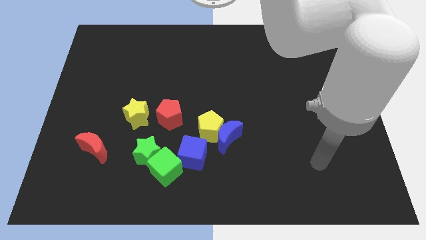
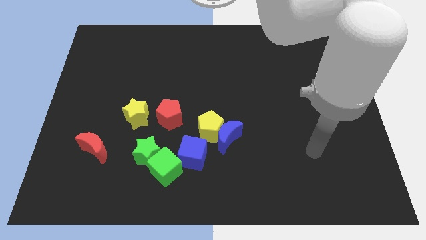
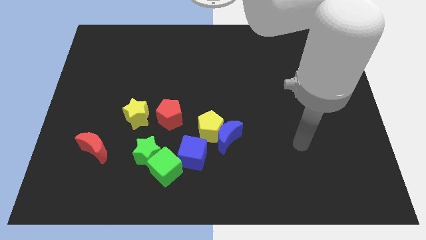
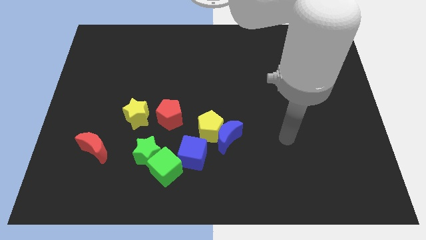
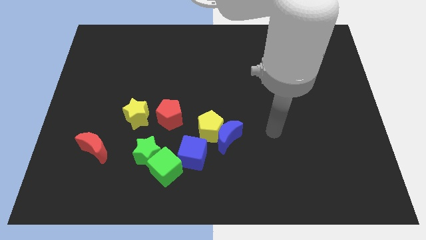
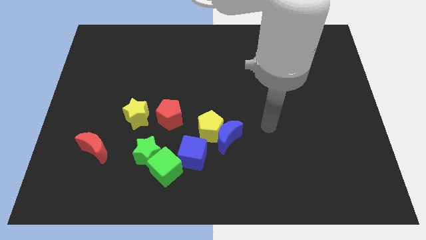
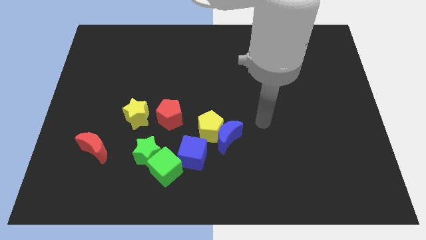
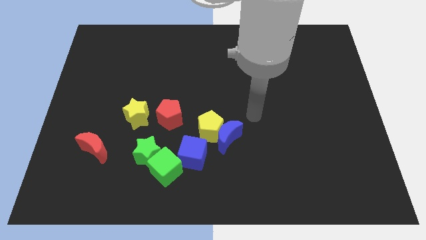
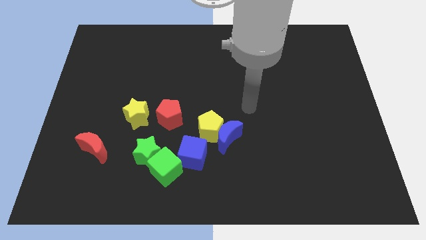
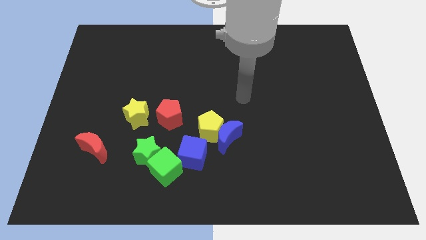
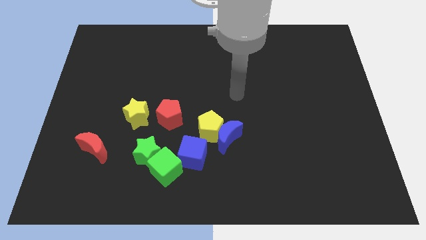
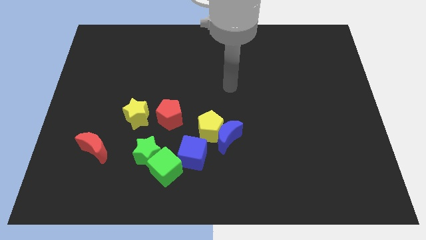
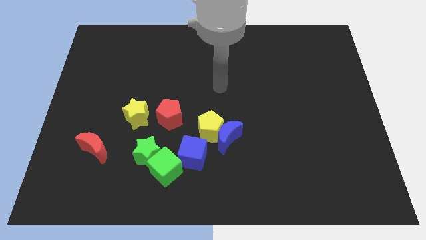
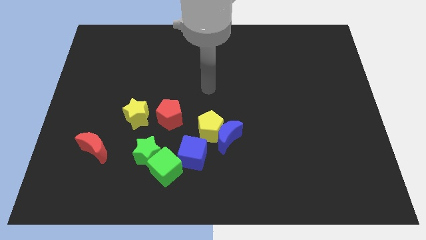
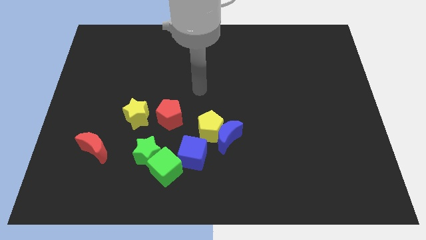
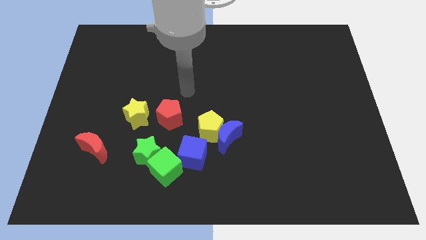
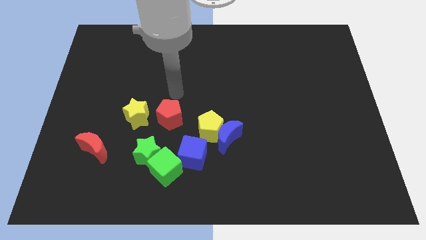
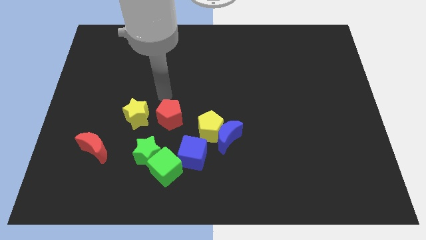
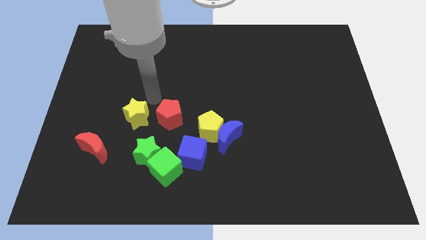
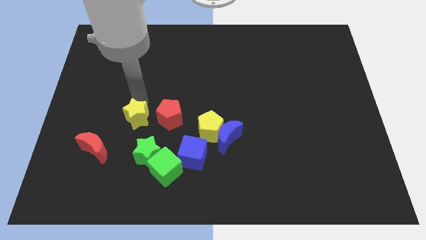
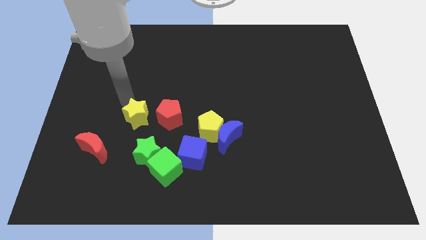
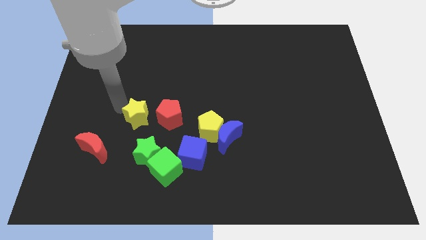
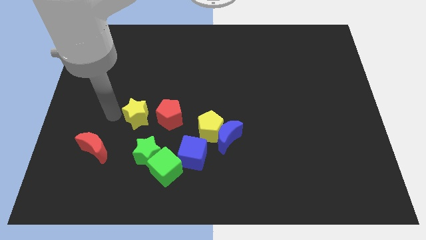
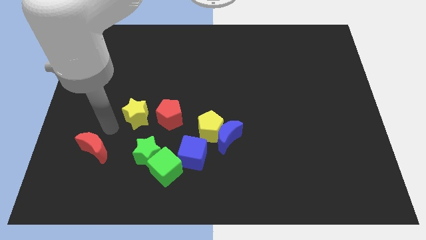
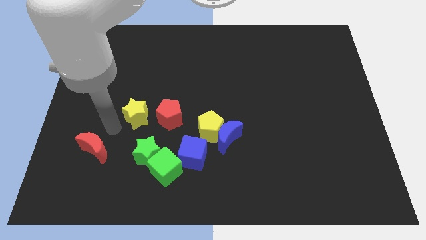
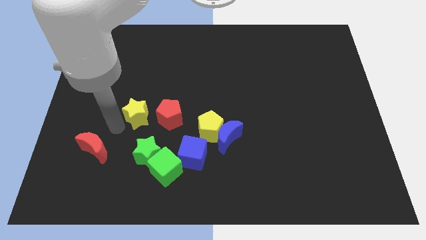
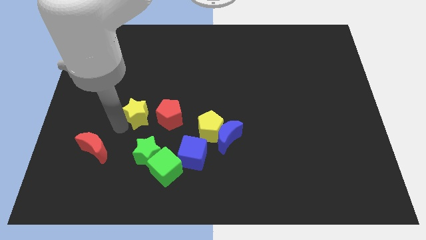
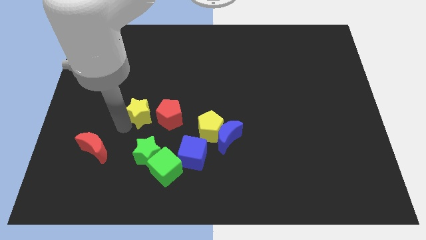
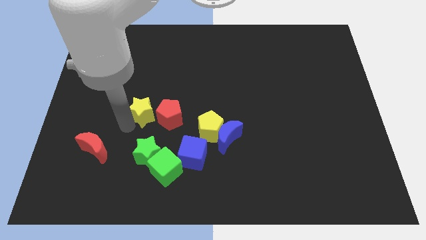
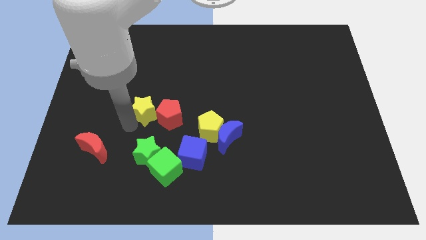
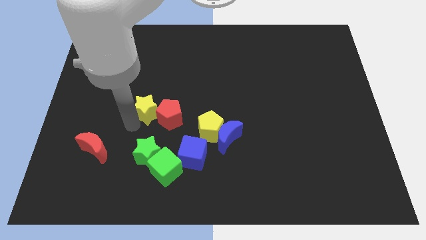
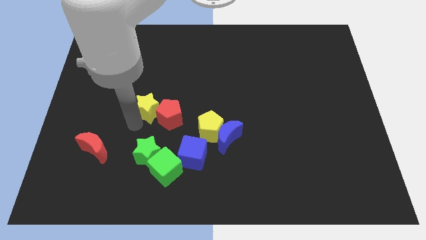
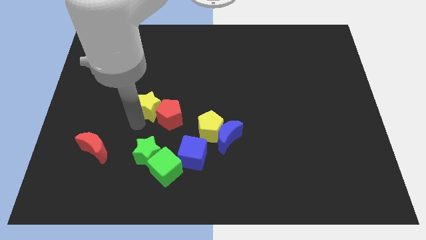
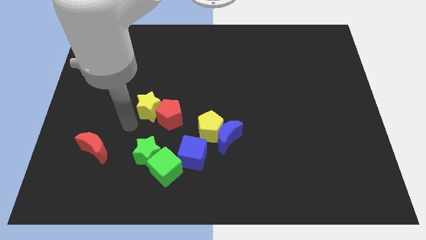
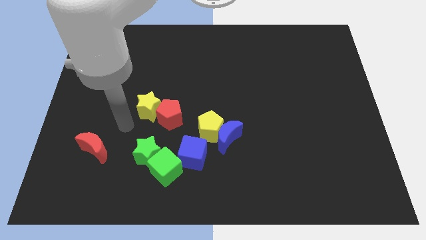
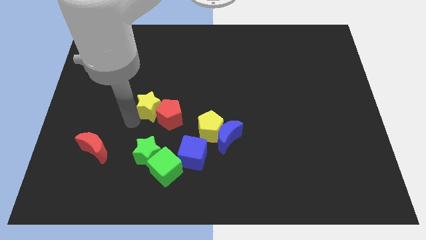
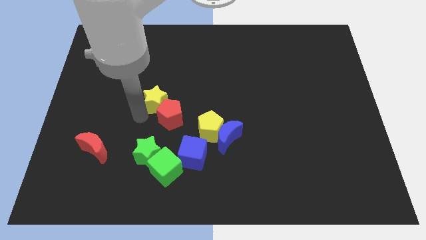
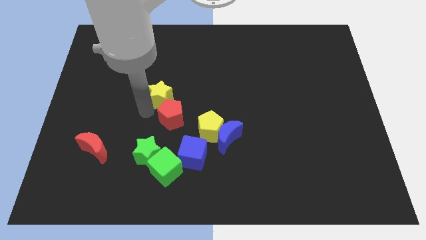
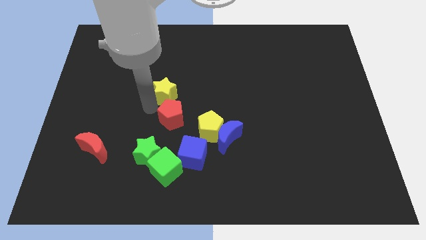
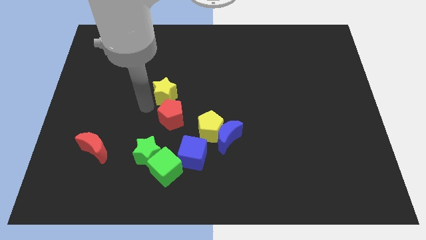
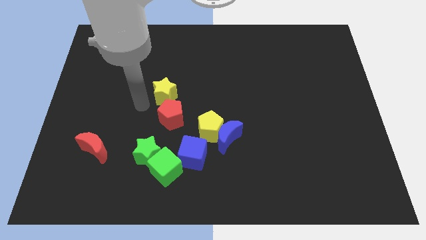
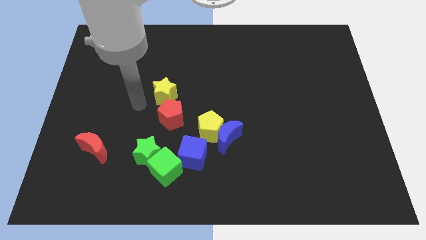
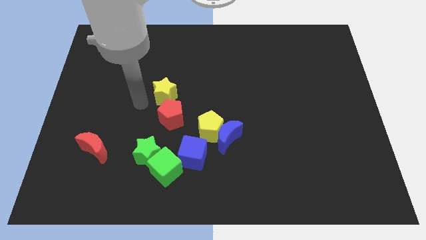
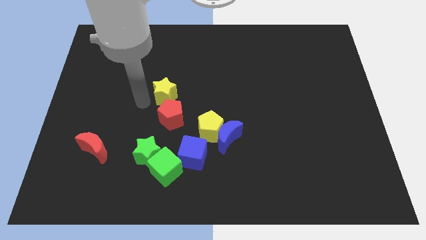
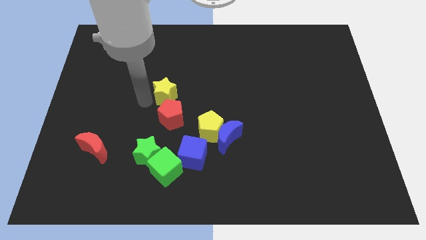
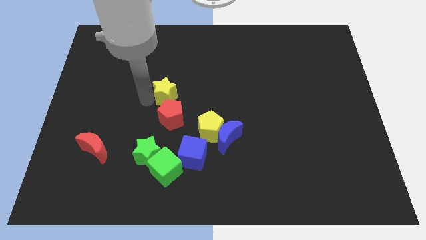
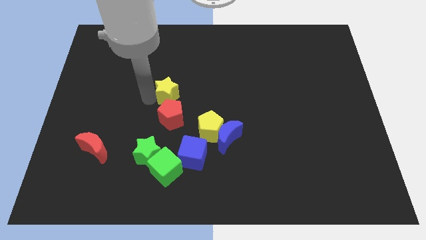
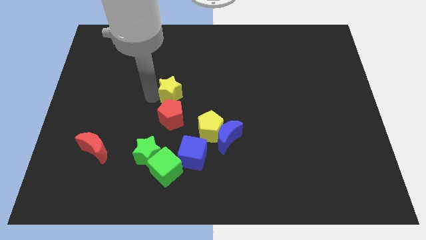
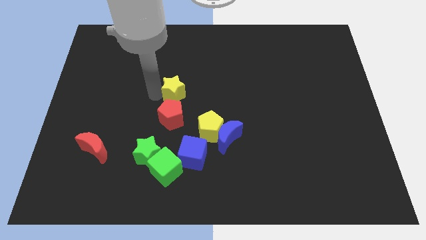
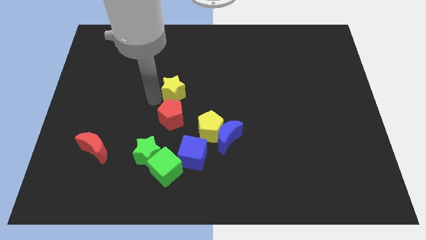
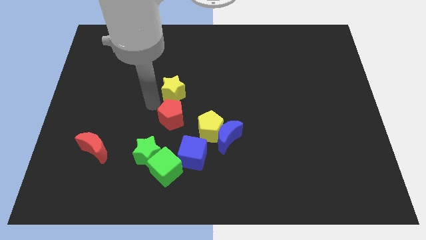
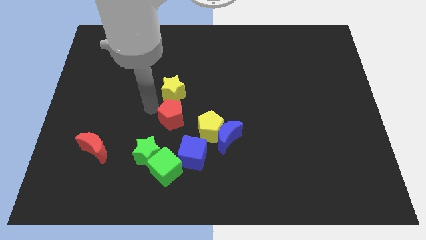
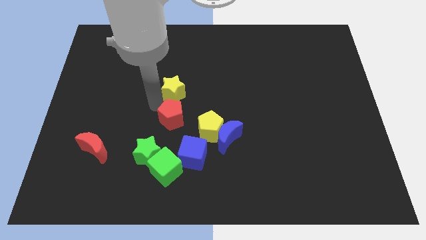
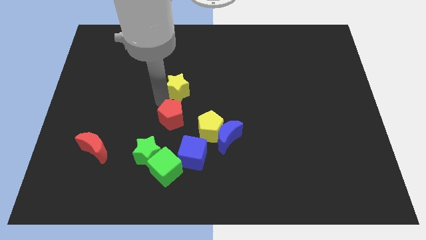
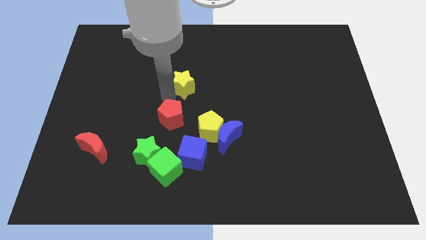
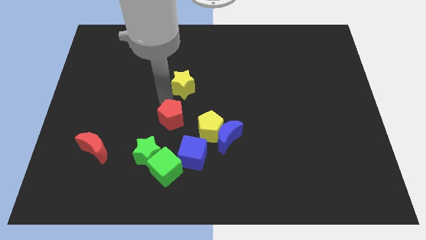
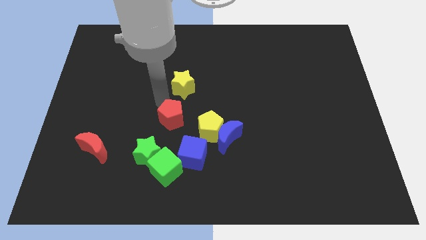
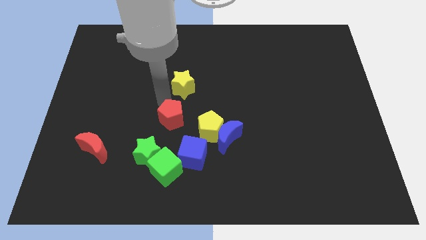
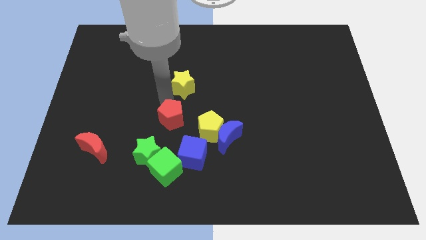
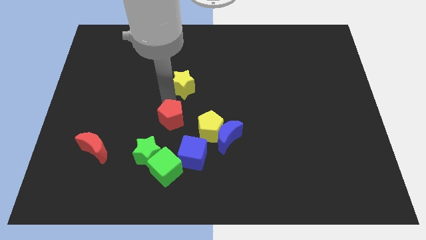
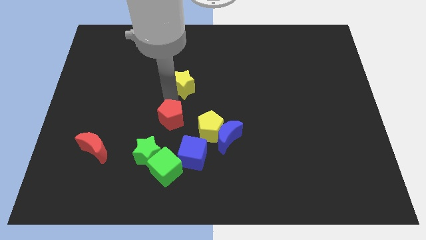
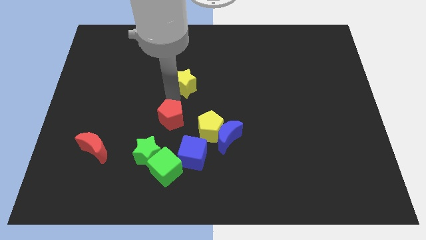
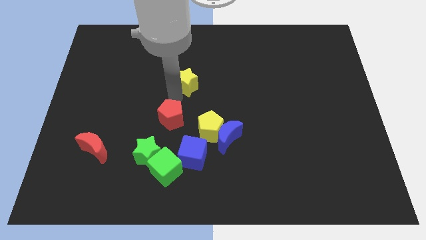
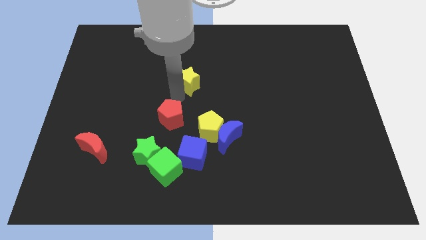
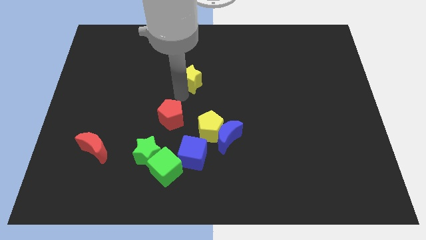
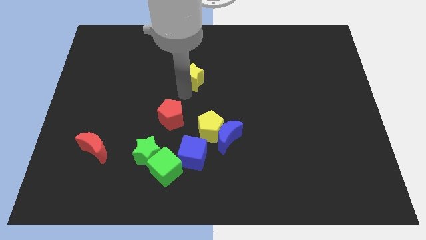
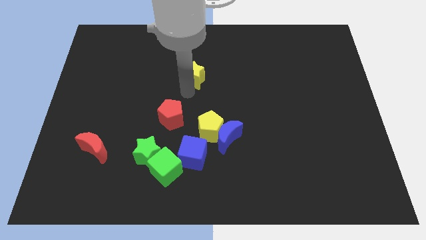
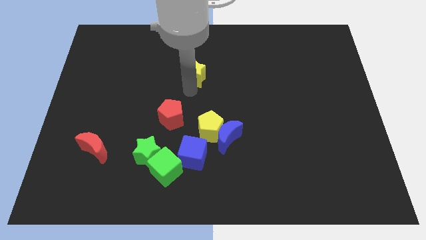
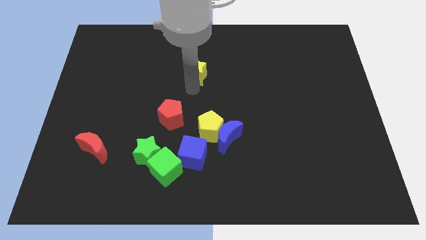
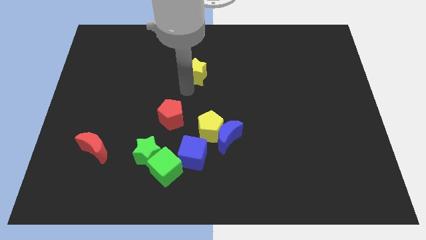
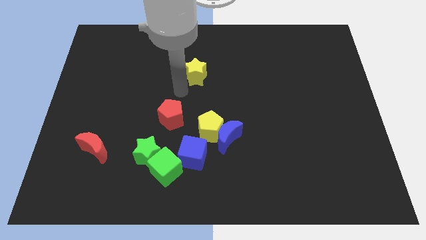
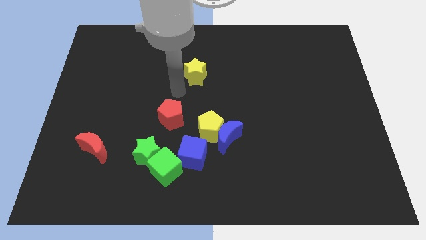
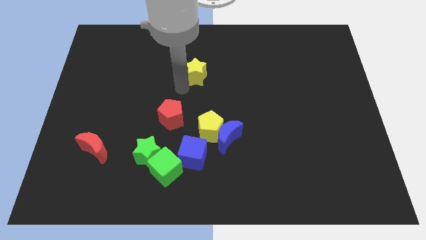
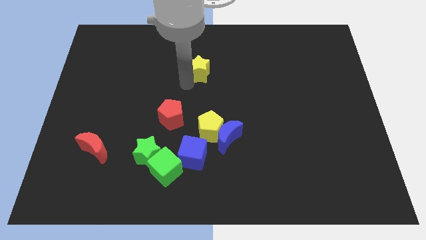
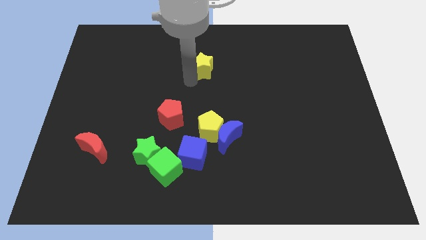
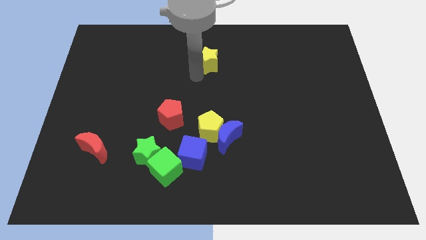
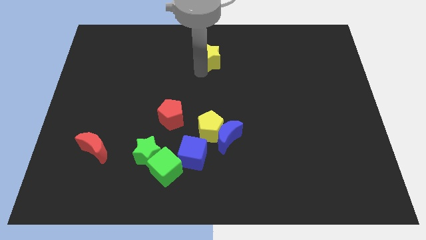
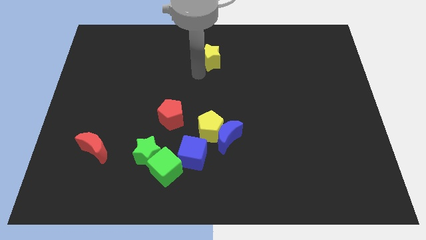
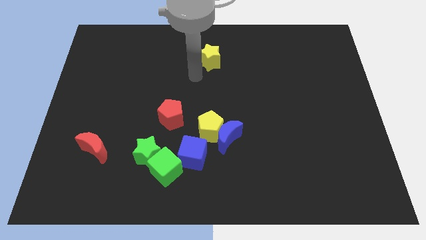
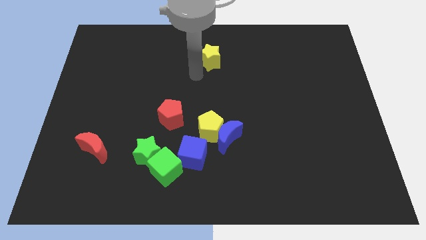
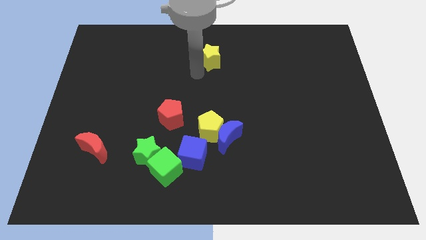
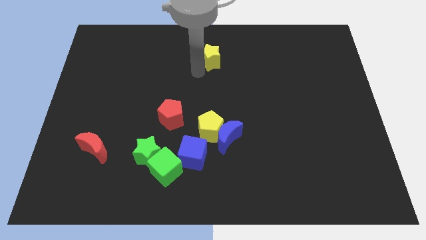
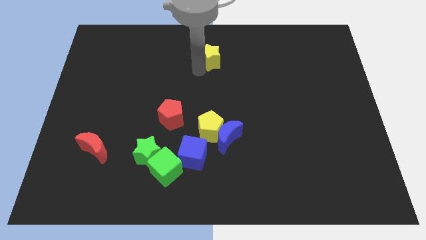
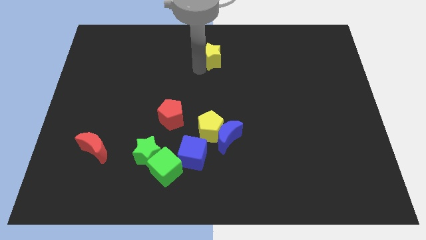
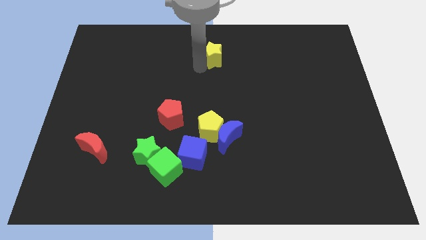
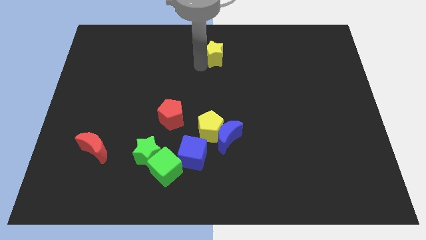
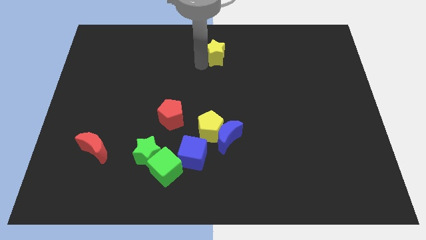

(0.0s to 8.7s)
slide the yellow star to the top
